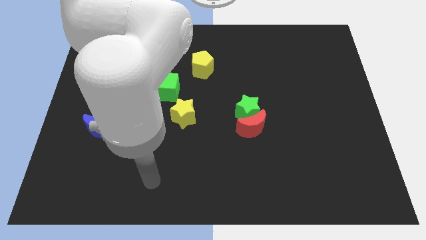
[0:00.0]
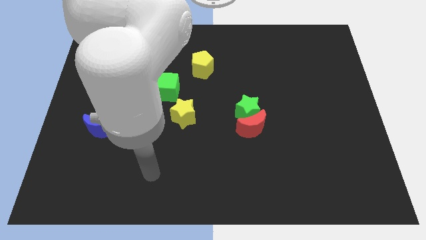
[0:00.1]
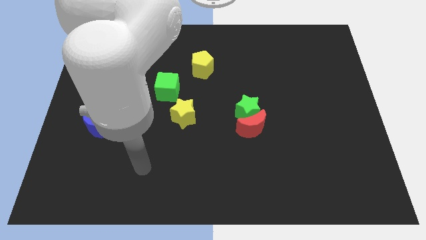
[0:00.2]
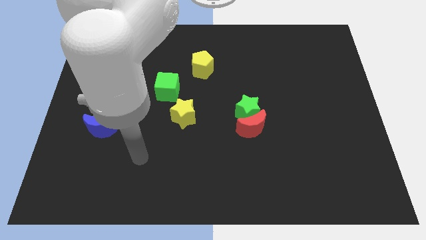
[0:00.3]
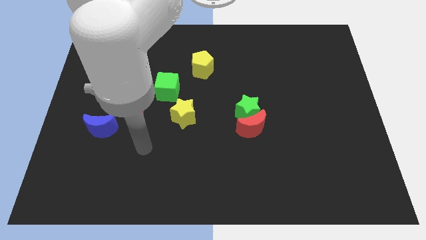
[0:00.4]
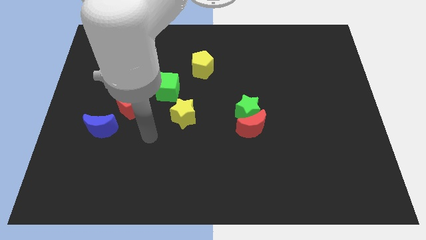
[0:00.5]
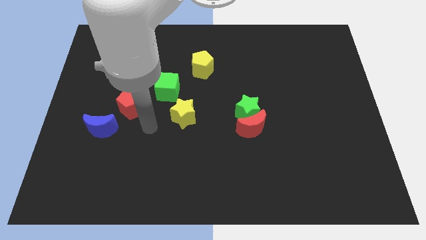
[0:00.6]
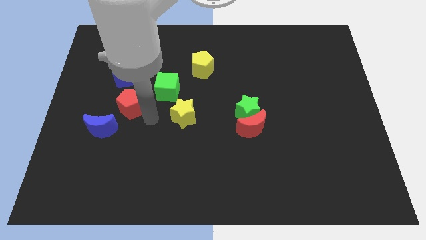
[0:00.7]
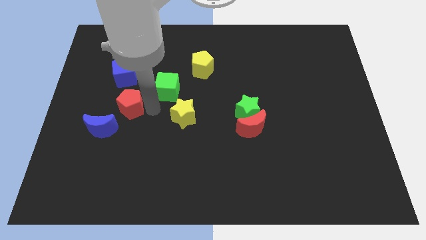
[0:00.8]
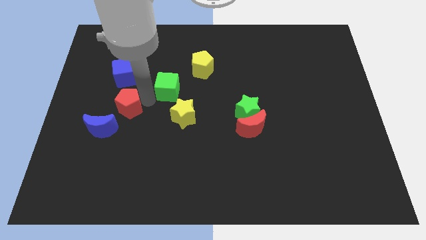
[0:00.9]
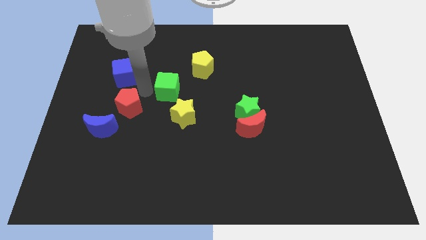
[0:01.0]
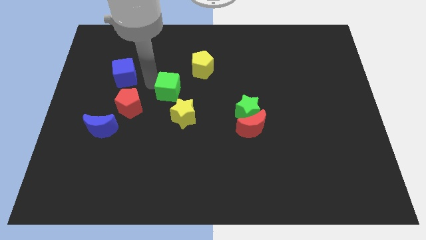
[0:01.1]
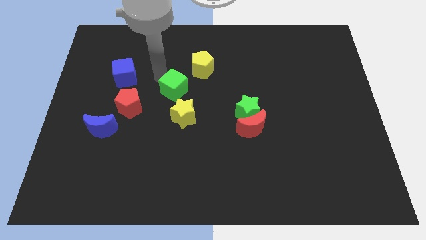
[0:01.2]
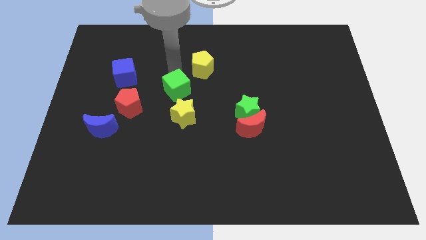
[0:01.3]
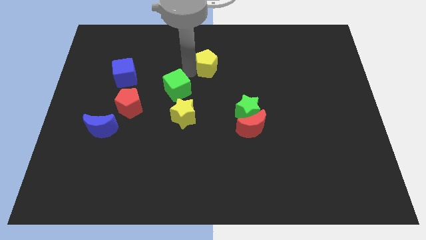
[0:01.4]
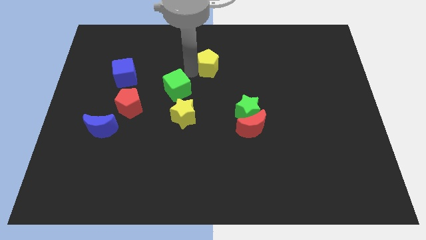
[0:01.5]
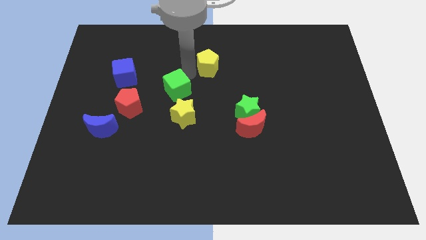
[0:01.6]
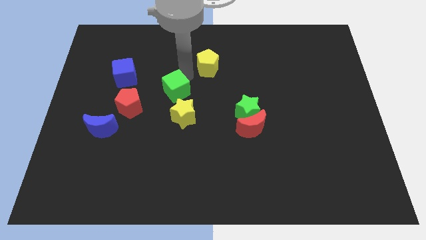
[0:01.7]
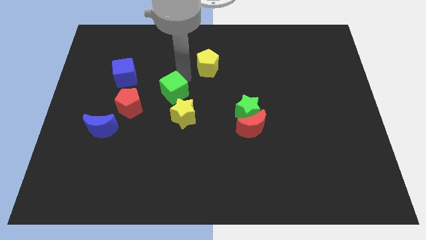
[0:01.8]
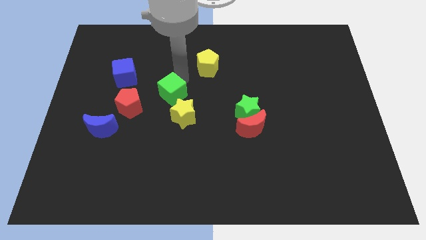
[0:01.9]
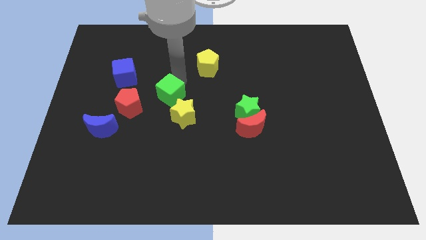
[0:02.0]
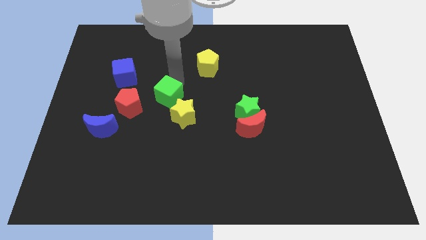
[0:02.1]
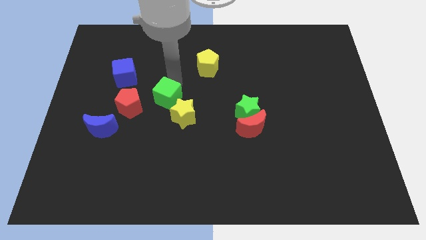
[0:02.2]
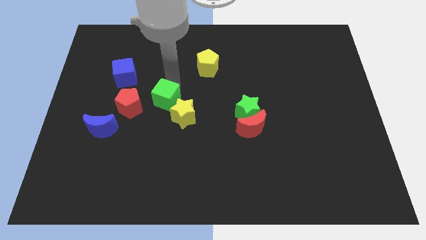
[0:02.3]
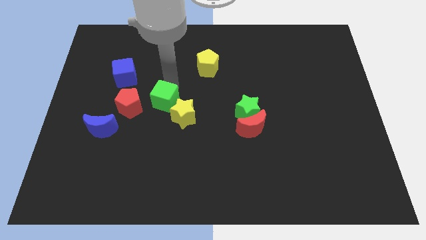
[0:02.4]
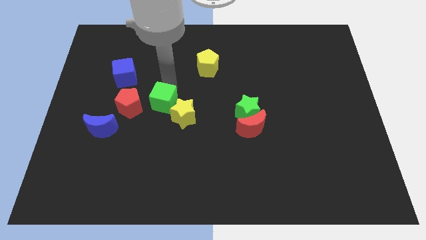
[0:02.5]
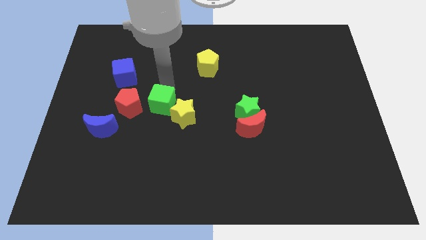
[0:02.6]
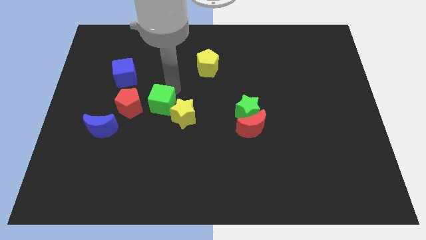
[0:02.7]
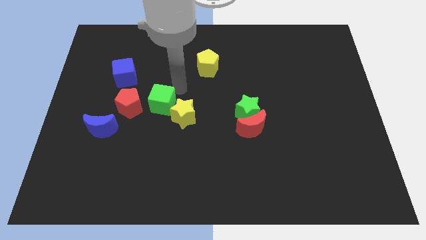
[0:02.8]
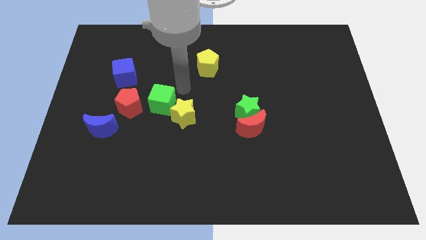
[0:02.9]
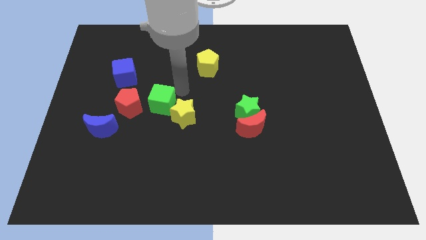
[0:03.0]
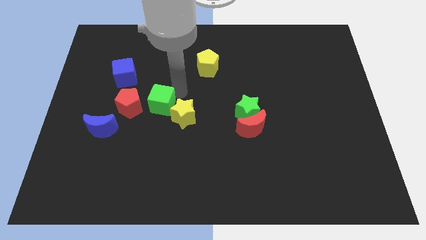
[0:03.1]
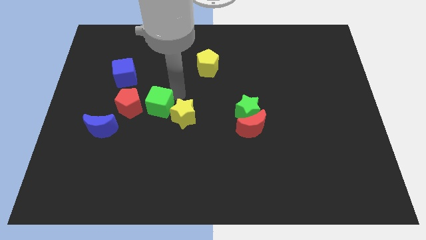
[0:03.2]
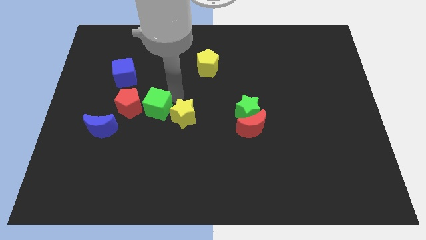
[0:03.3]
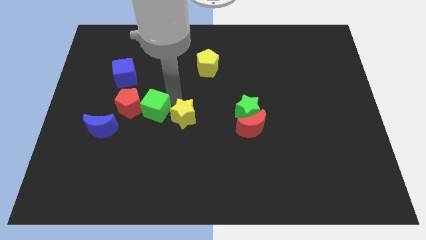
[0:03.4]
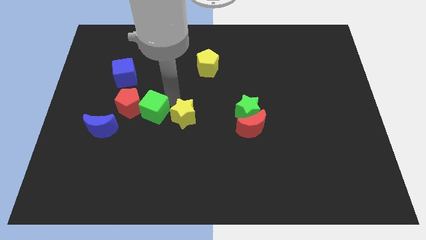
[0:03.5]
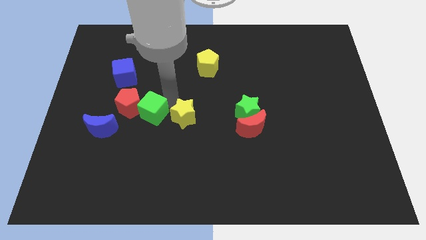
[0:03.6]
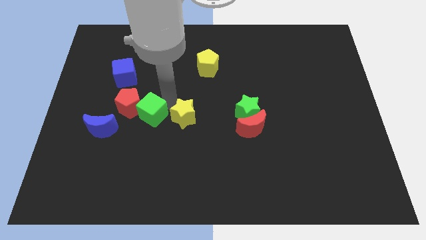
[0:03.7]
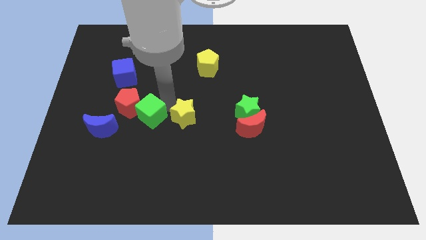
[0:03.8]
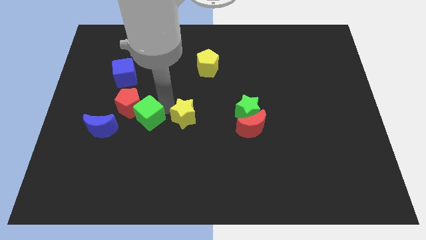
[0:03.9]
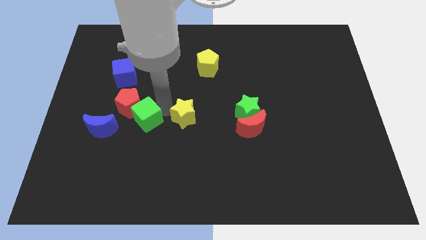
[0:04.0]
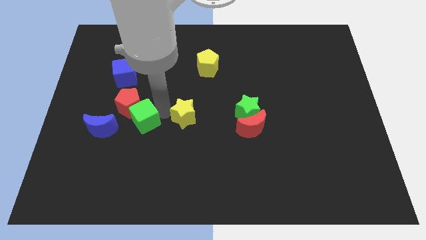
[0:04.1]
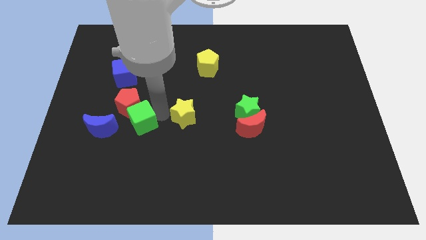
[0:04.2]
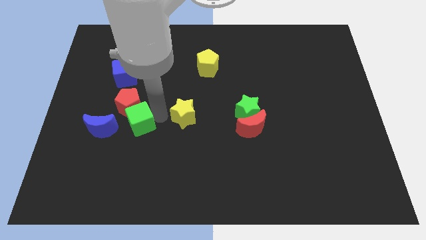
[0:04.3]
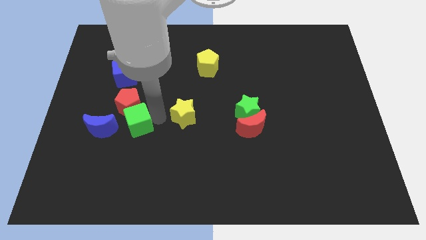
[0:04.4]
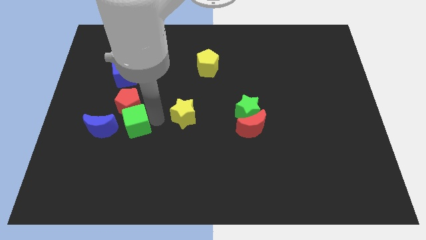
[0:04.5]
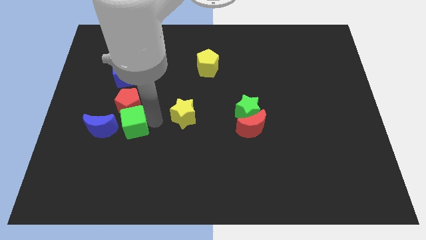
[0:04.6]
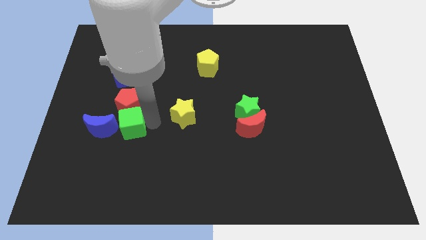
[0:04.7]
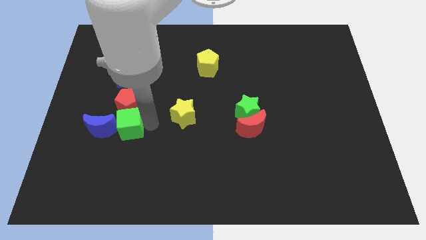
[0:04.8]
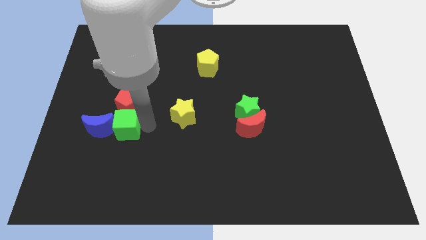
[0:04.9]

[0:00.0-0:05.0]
push the green cube next to the blue moon

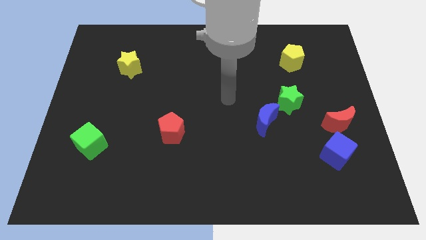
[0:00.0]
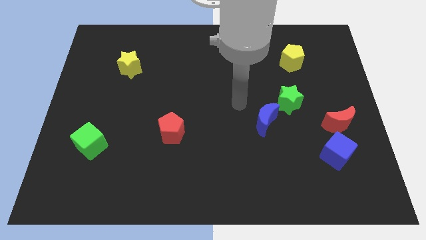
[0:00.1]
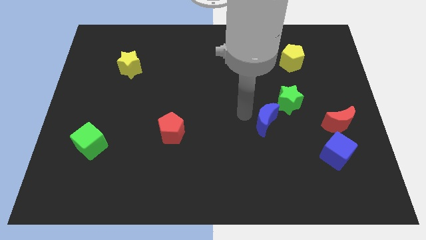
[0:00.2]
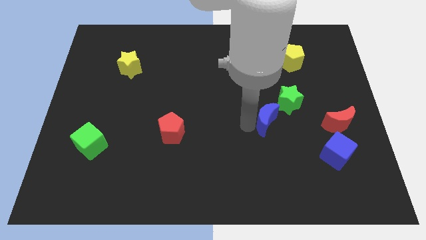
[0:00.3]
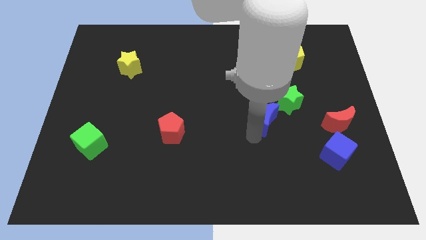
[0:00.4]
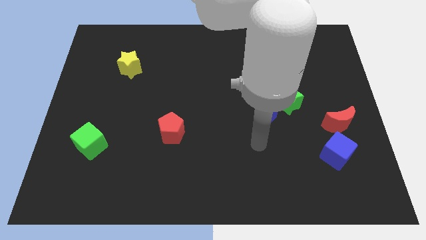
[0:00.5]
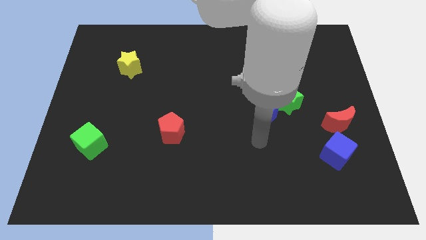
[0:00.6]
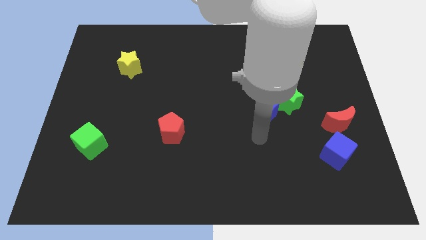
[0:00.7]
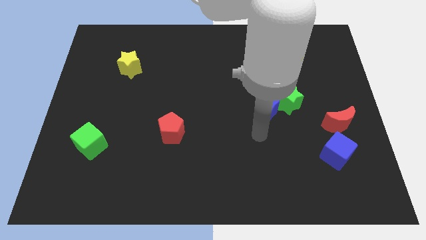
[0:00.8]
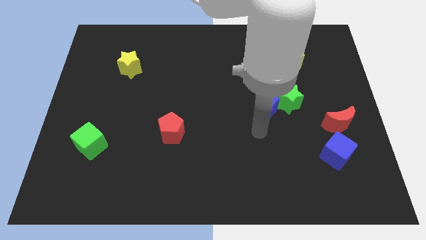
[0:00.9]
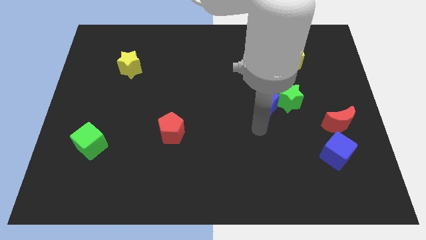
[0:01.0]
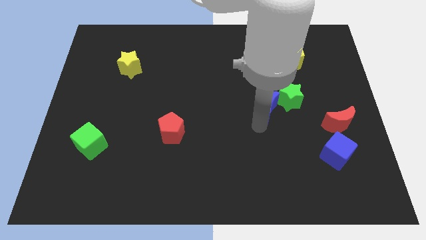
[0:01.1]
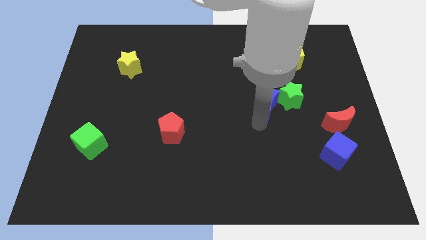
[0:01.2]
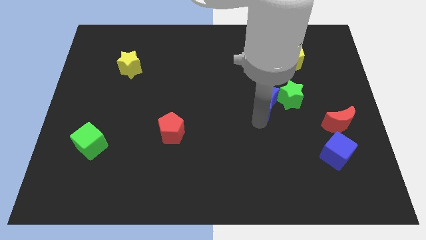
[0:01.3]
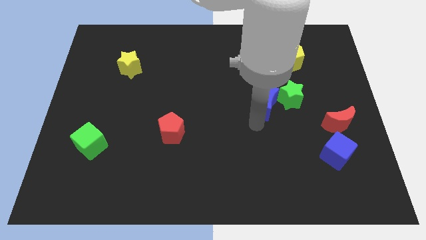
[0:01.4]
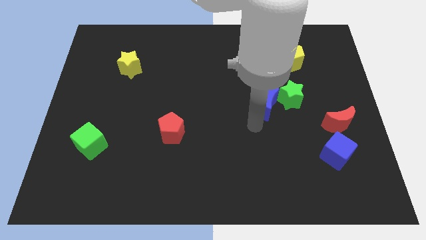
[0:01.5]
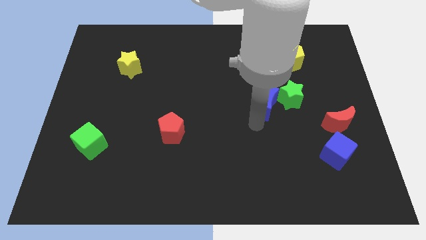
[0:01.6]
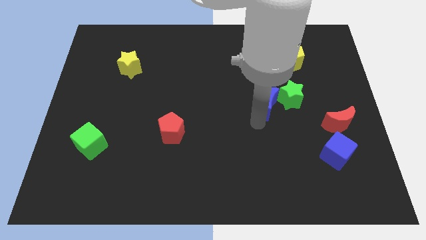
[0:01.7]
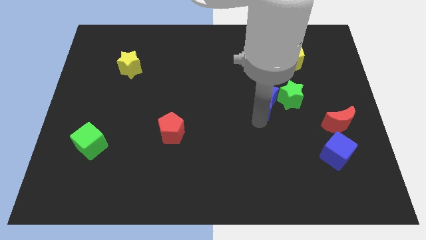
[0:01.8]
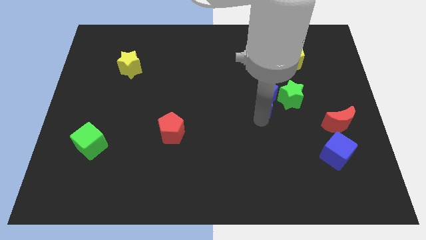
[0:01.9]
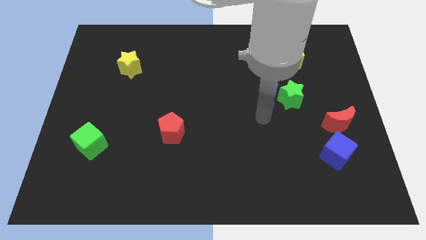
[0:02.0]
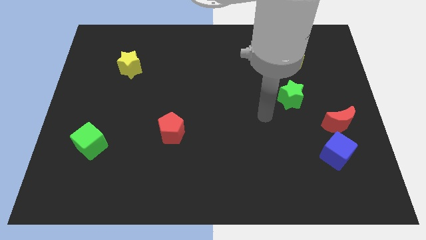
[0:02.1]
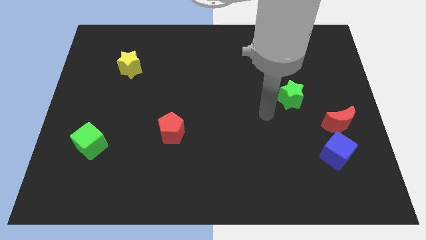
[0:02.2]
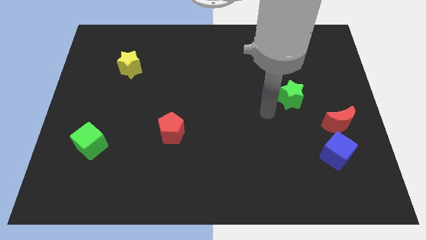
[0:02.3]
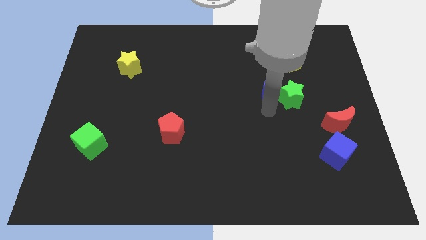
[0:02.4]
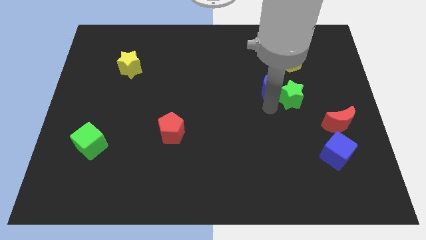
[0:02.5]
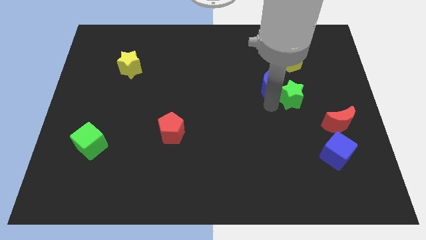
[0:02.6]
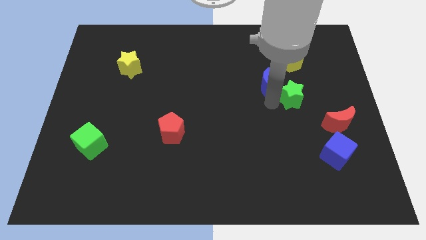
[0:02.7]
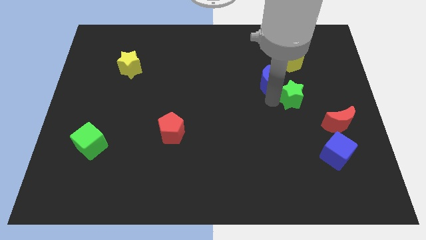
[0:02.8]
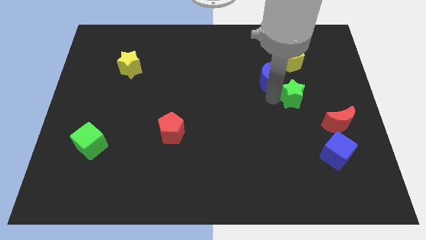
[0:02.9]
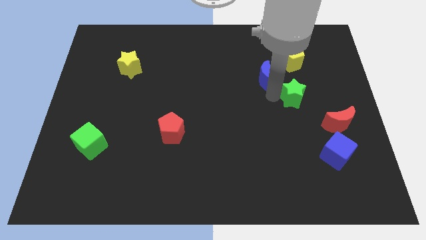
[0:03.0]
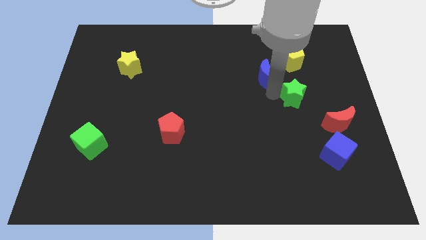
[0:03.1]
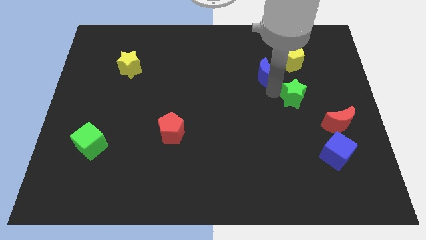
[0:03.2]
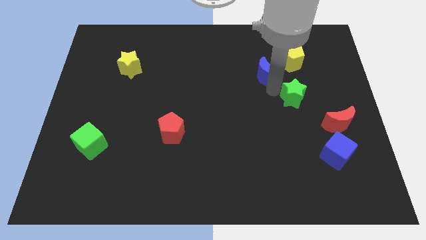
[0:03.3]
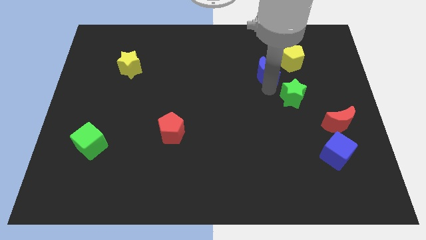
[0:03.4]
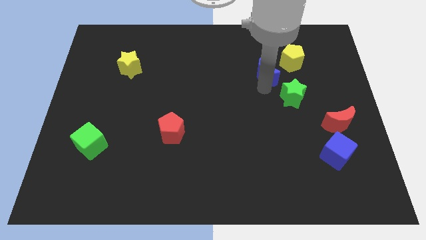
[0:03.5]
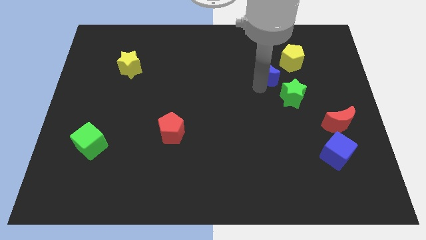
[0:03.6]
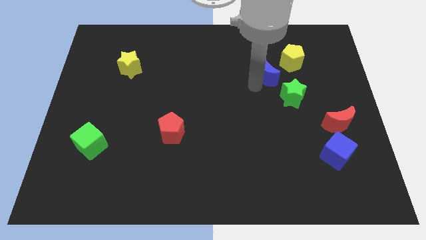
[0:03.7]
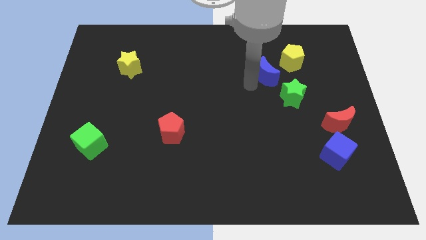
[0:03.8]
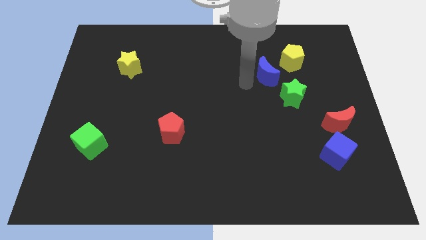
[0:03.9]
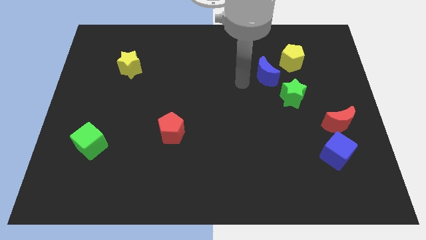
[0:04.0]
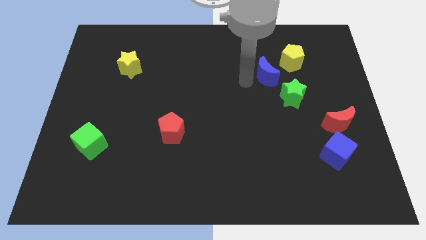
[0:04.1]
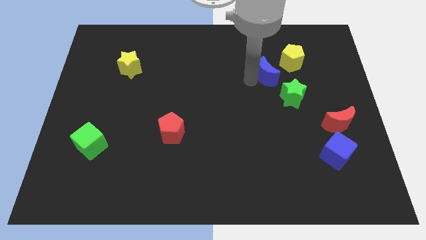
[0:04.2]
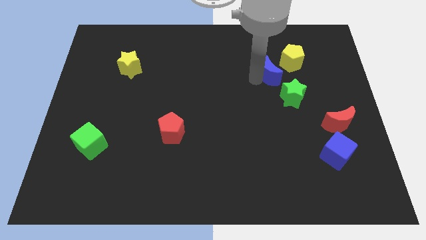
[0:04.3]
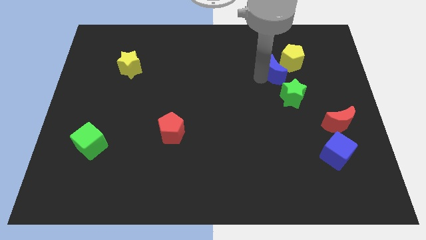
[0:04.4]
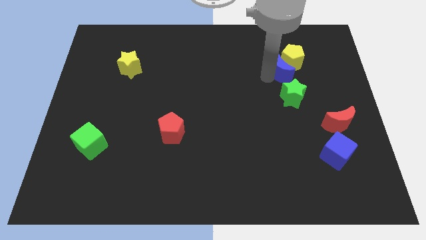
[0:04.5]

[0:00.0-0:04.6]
put the blue moon next to the yellow pentagon
